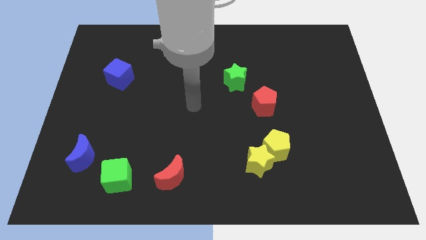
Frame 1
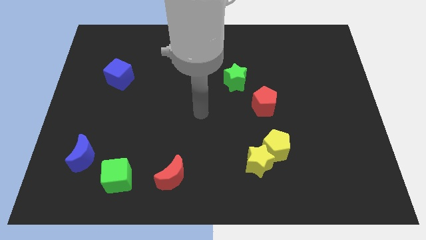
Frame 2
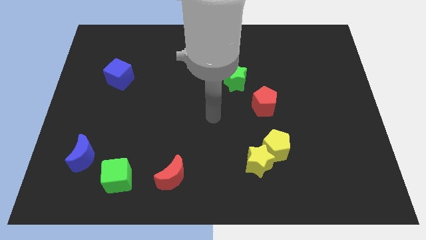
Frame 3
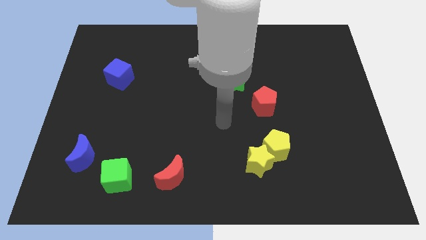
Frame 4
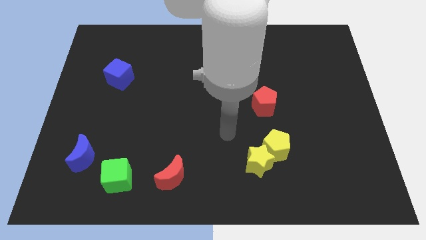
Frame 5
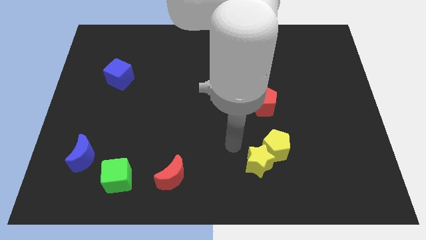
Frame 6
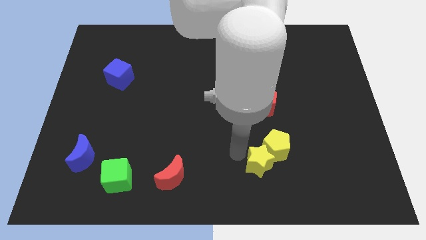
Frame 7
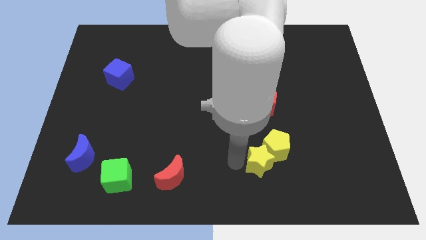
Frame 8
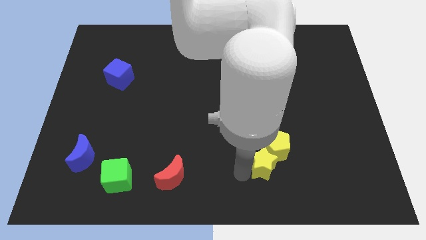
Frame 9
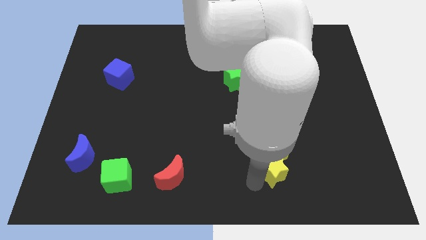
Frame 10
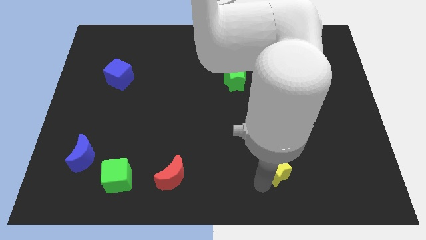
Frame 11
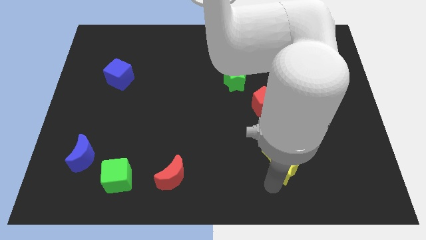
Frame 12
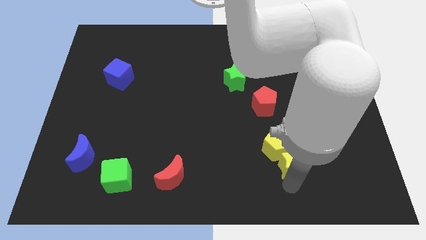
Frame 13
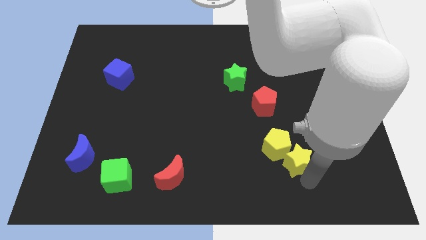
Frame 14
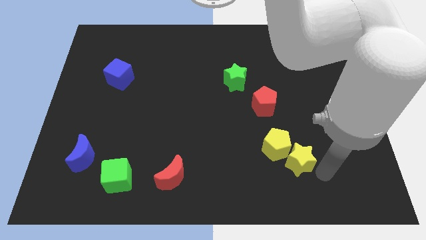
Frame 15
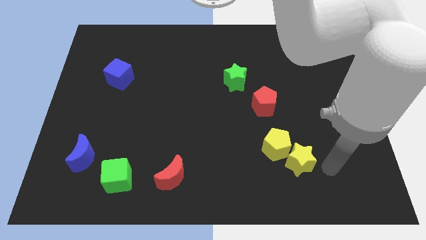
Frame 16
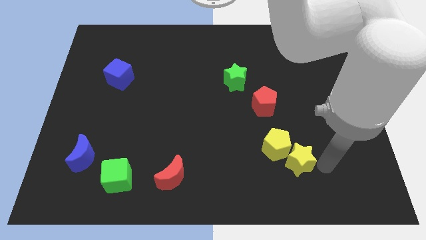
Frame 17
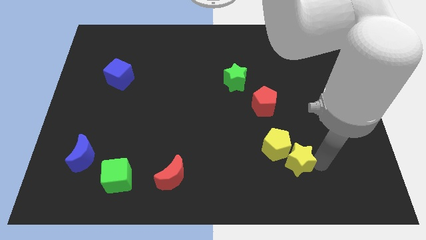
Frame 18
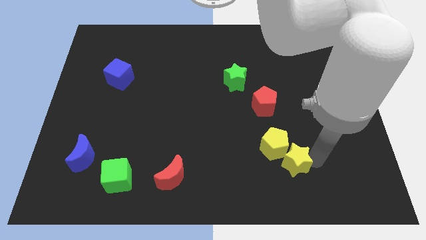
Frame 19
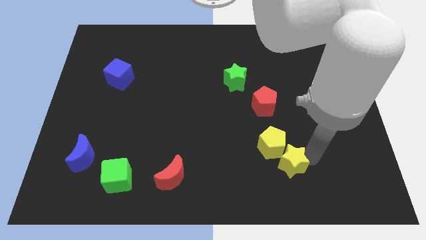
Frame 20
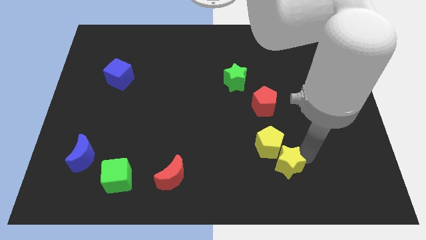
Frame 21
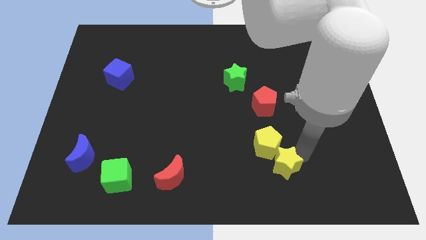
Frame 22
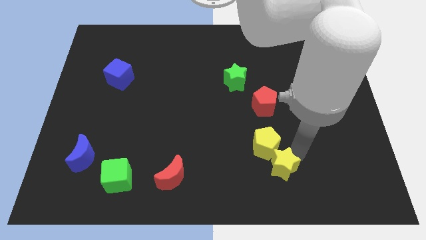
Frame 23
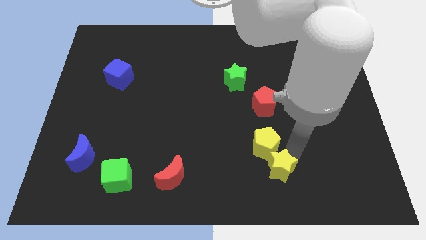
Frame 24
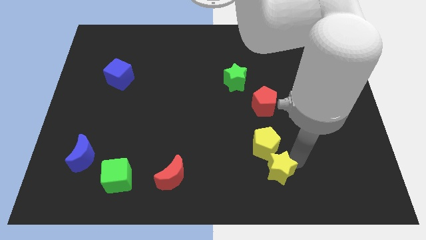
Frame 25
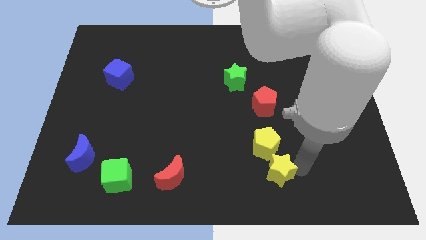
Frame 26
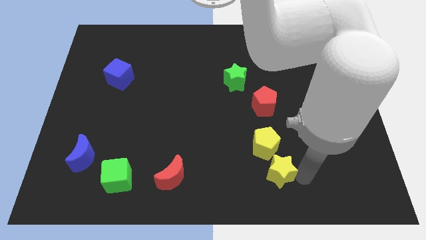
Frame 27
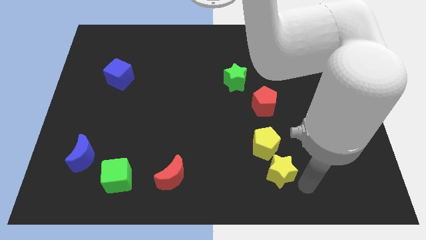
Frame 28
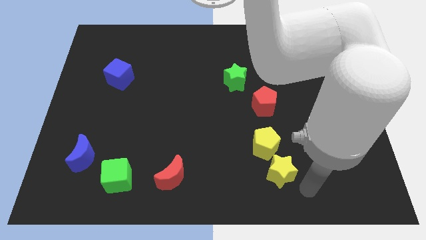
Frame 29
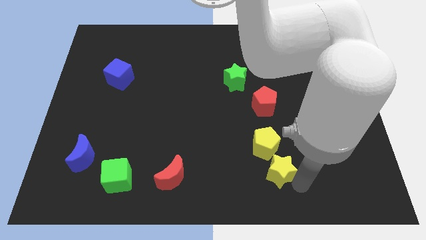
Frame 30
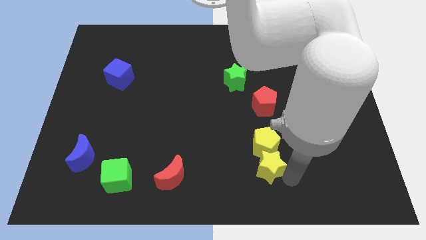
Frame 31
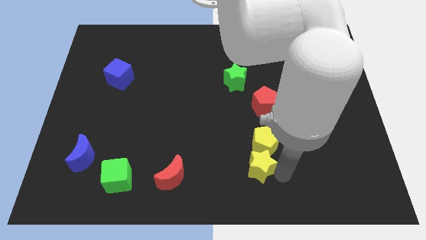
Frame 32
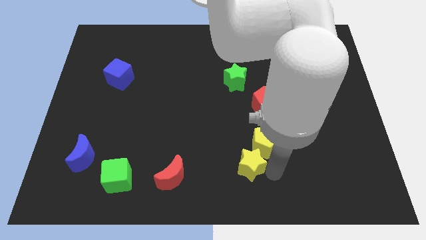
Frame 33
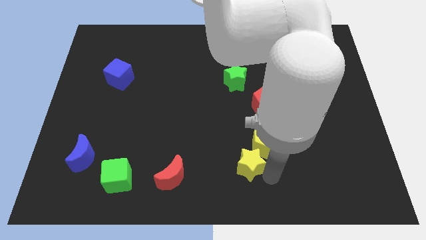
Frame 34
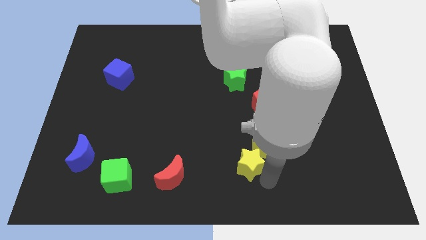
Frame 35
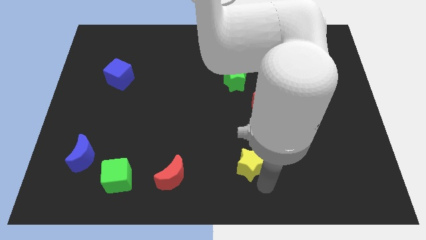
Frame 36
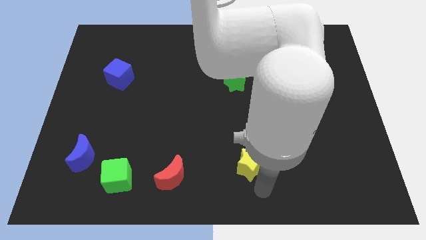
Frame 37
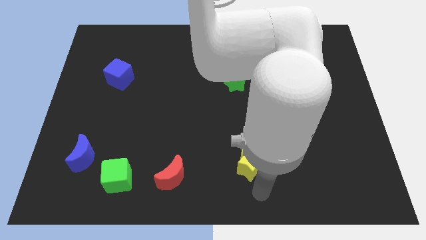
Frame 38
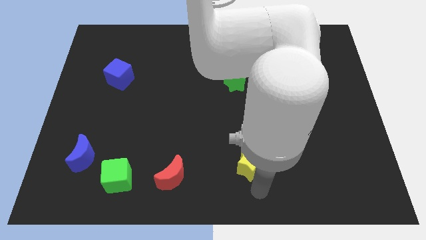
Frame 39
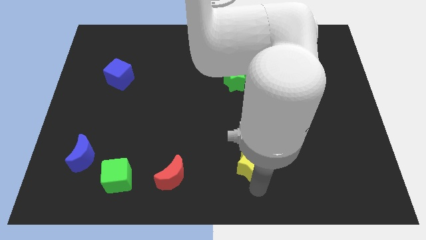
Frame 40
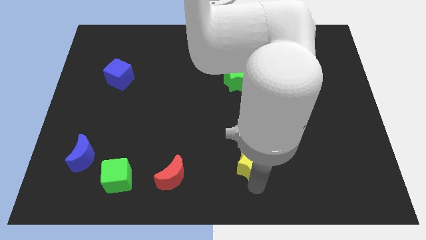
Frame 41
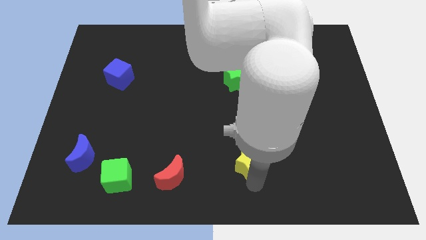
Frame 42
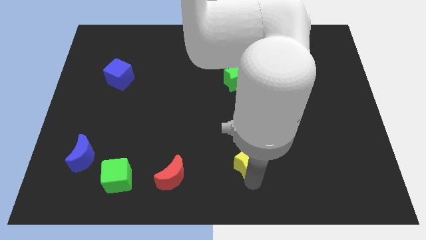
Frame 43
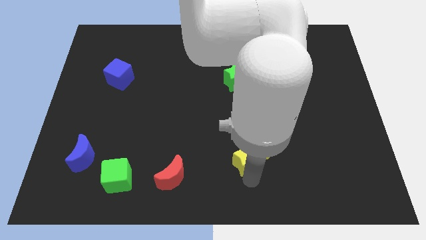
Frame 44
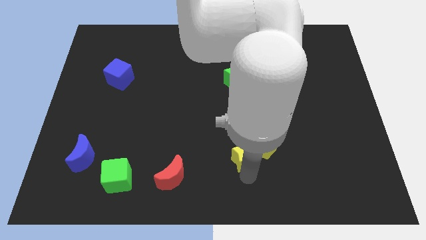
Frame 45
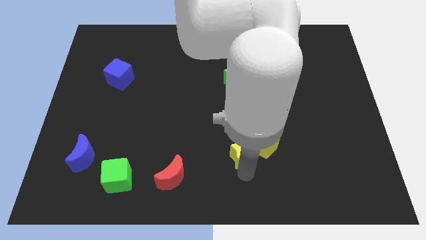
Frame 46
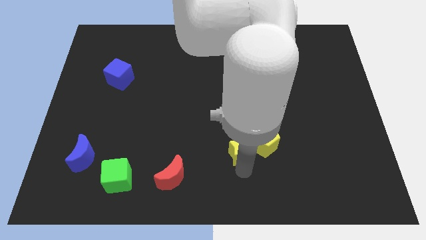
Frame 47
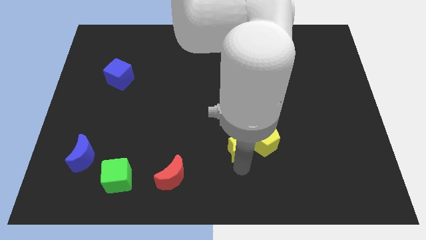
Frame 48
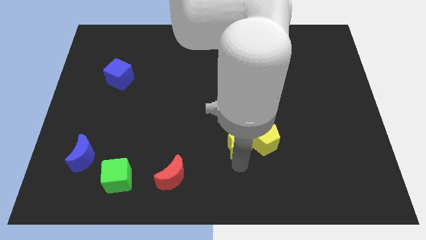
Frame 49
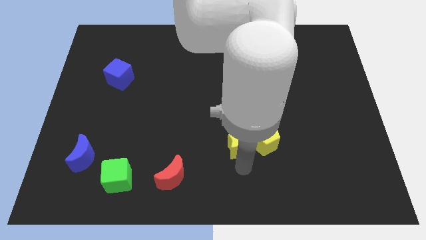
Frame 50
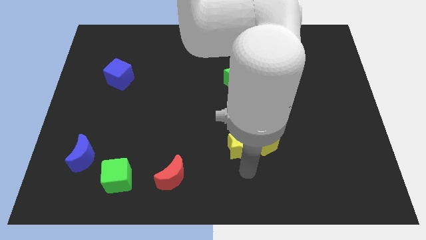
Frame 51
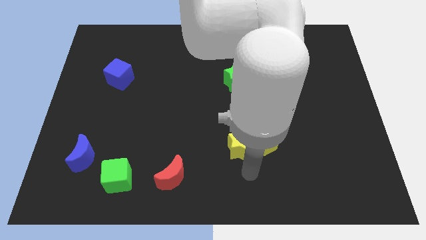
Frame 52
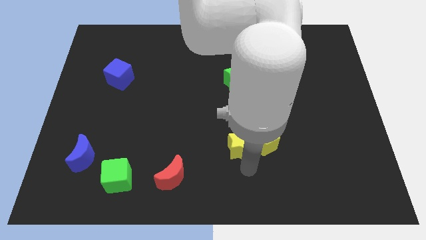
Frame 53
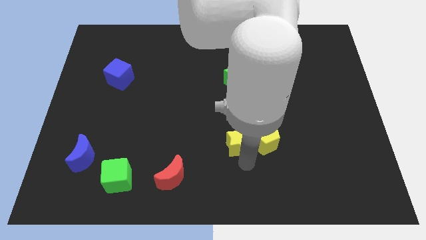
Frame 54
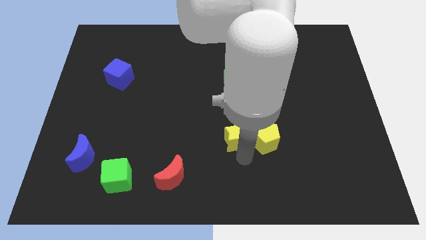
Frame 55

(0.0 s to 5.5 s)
put the yellow star to the middle of the board
